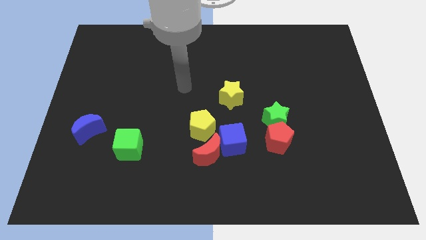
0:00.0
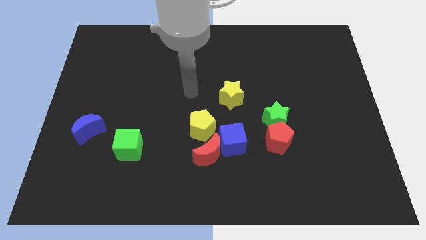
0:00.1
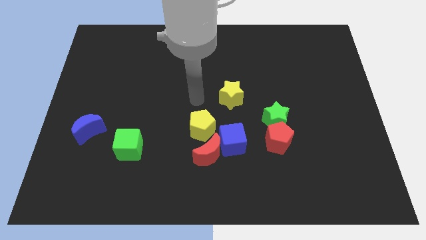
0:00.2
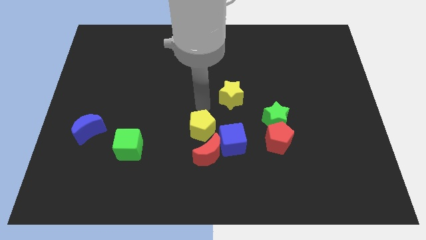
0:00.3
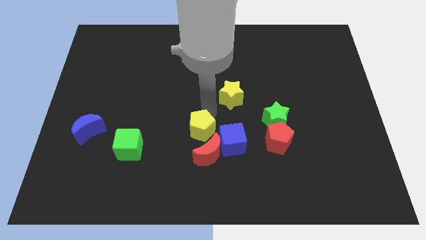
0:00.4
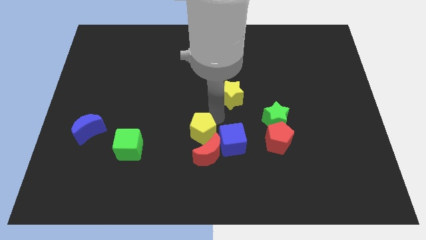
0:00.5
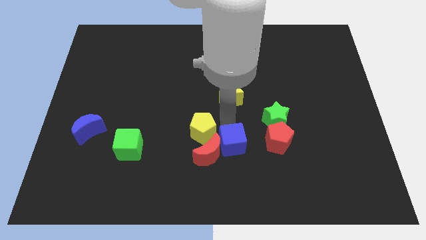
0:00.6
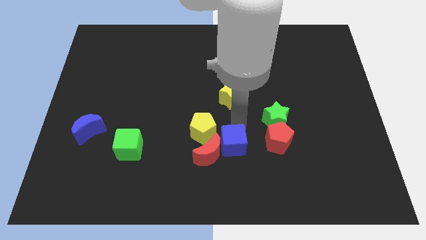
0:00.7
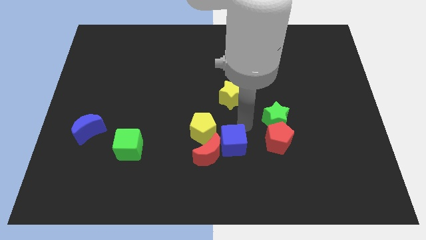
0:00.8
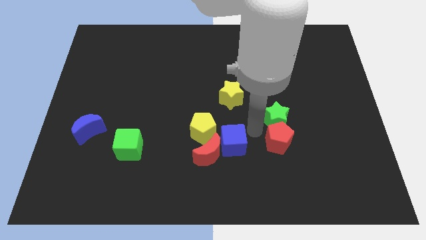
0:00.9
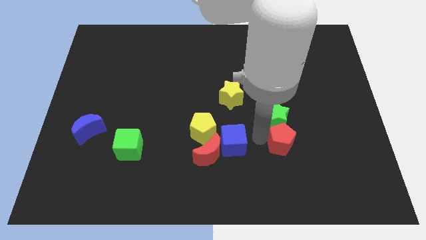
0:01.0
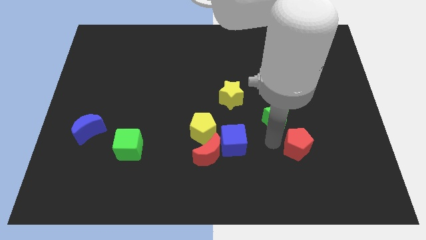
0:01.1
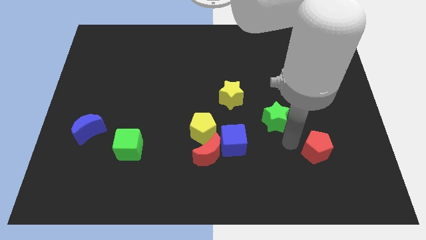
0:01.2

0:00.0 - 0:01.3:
pull the green star apart from the red pentagon

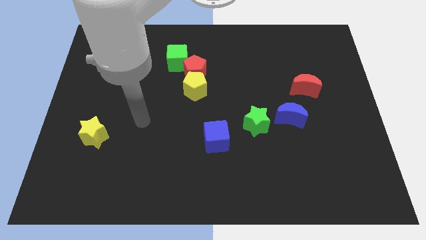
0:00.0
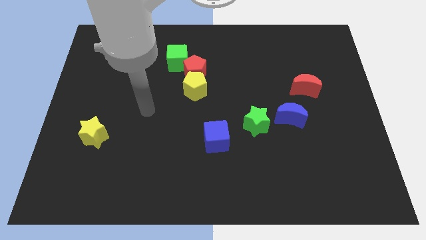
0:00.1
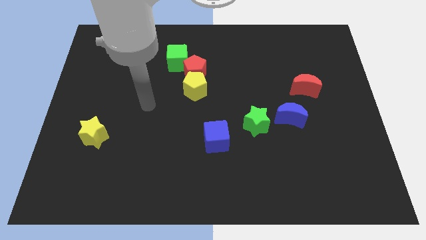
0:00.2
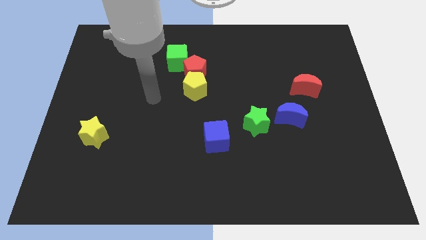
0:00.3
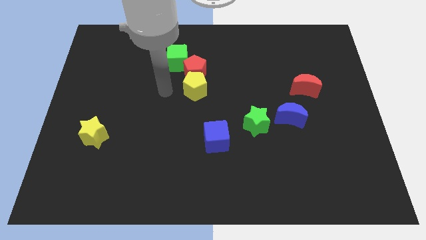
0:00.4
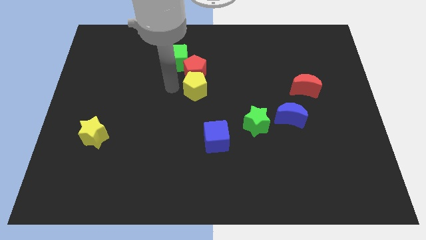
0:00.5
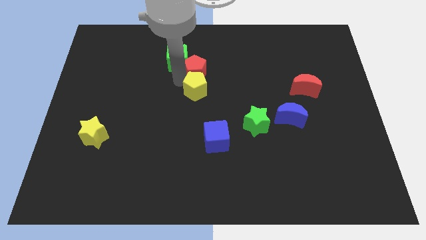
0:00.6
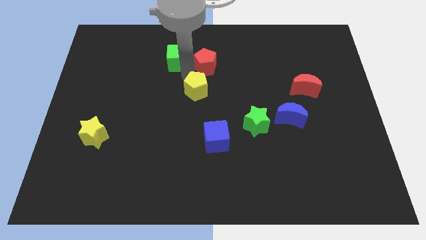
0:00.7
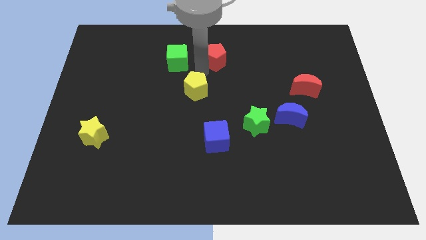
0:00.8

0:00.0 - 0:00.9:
pull the yellow pentagon apart from the red pentagon

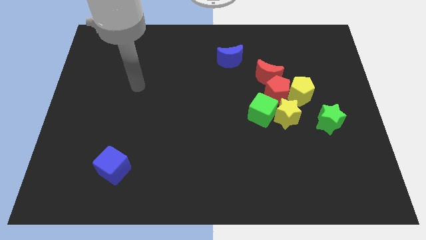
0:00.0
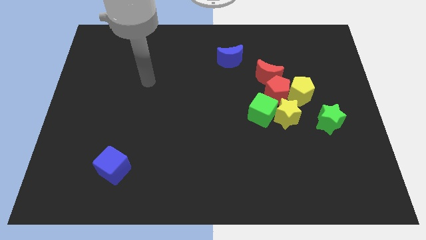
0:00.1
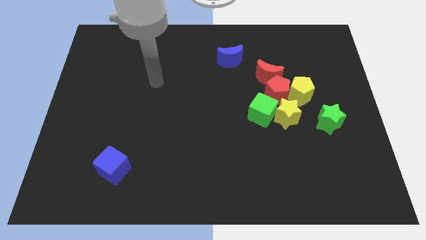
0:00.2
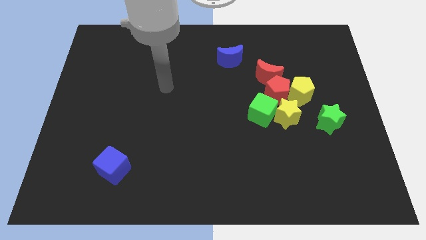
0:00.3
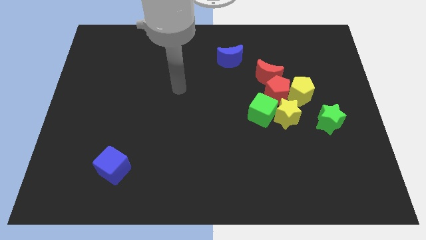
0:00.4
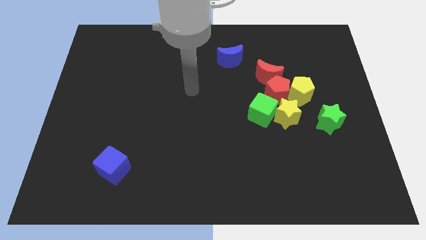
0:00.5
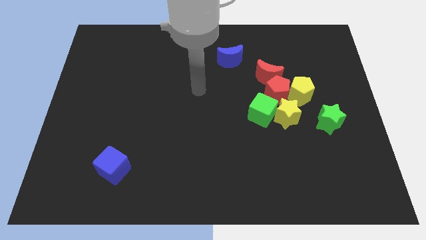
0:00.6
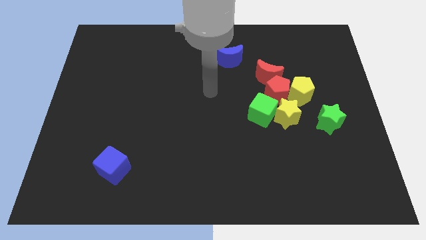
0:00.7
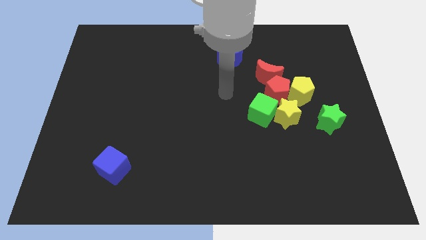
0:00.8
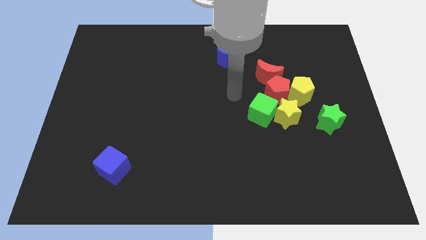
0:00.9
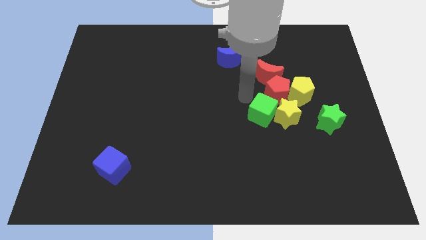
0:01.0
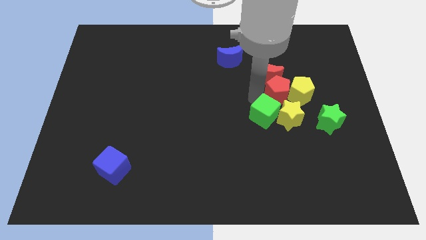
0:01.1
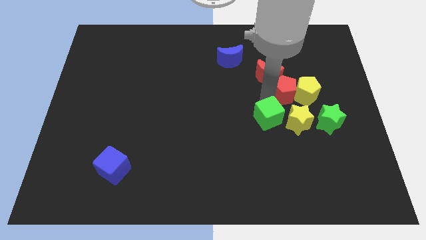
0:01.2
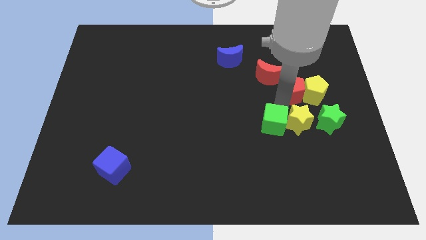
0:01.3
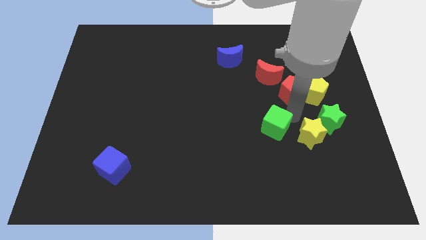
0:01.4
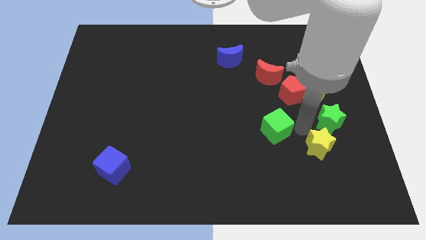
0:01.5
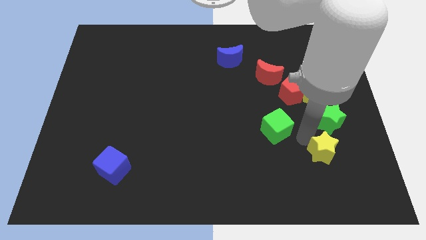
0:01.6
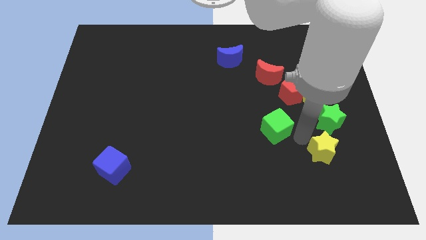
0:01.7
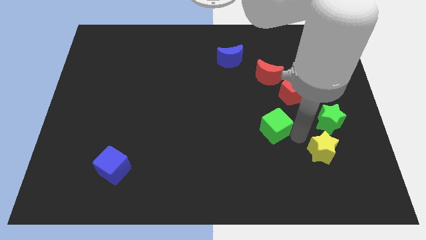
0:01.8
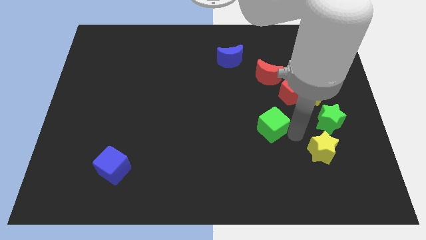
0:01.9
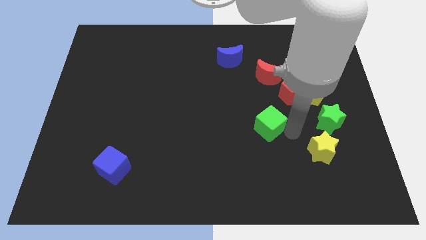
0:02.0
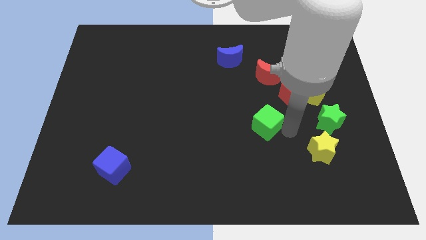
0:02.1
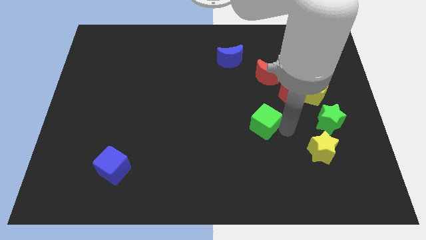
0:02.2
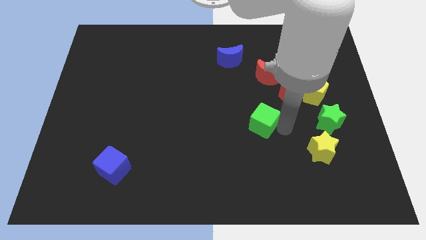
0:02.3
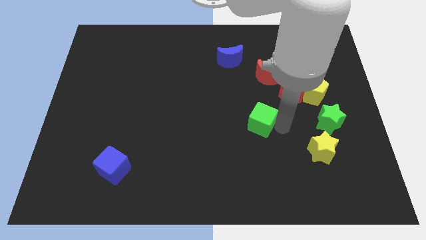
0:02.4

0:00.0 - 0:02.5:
pull the green cube apart from the yellow star and red pentagon

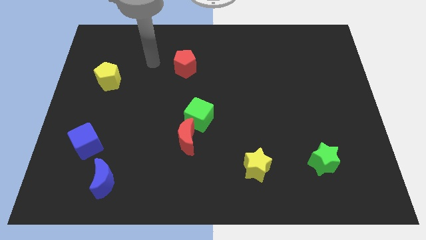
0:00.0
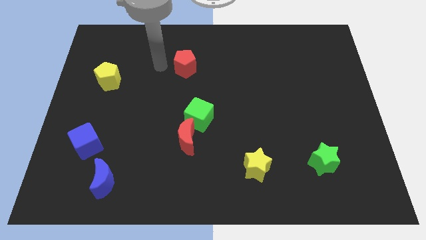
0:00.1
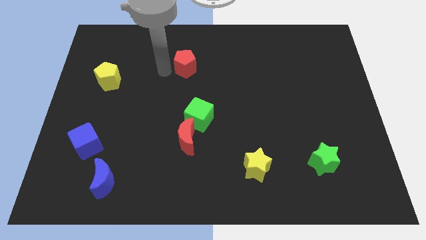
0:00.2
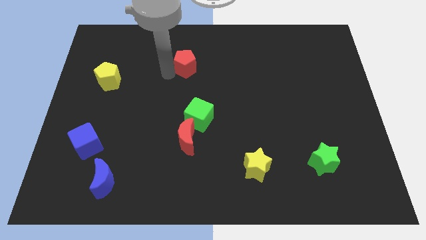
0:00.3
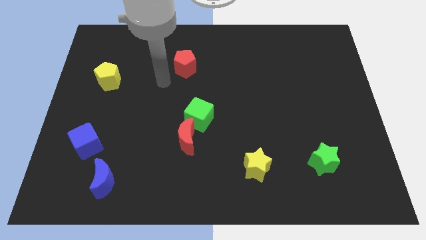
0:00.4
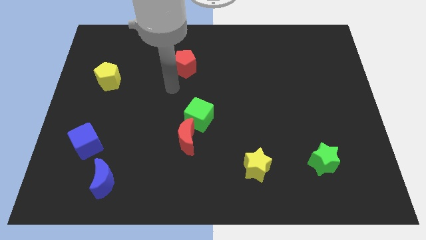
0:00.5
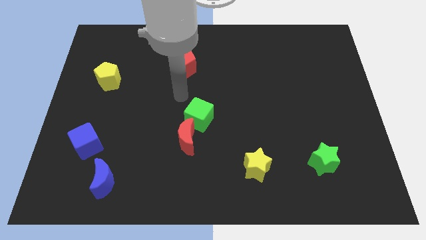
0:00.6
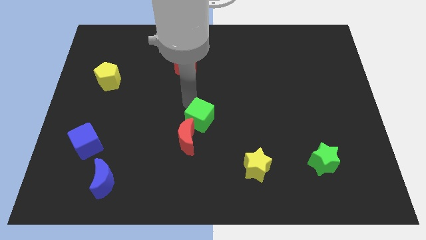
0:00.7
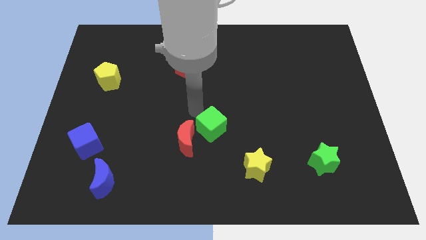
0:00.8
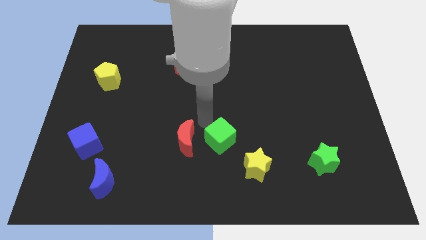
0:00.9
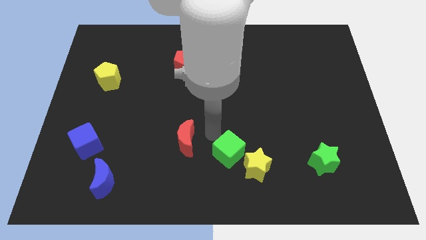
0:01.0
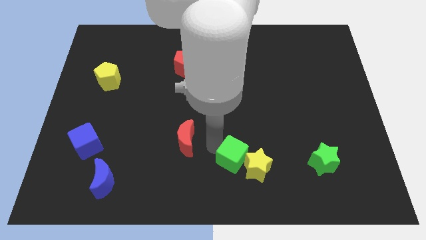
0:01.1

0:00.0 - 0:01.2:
separate the red moon from the green cube

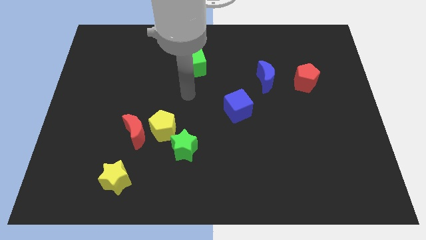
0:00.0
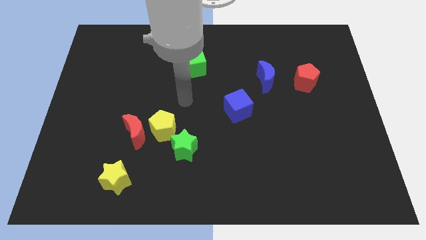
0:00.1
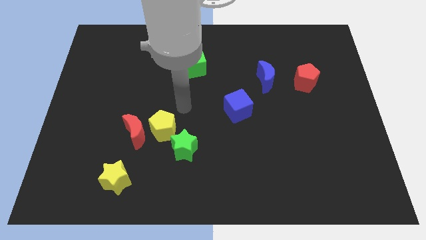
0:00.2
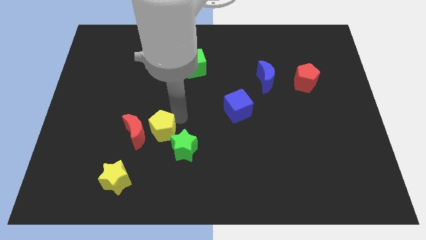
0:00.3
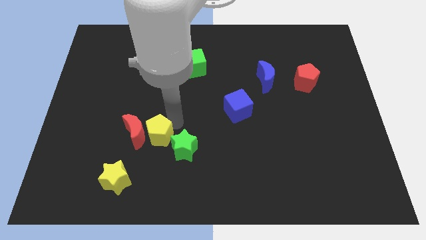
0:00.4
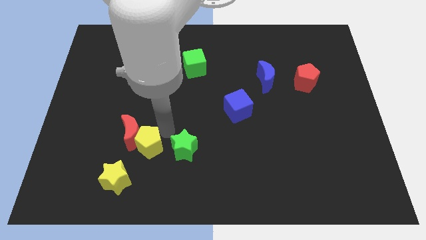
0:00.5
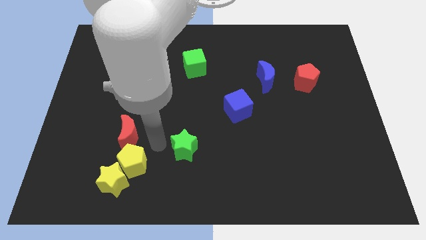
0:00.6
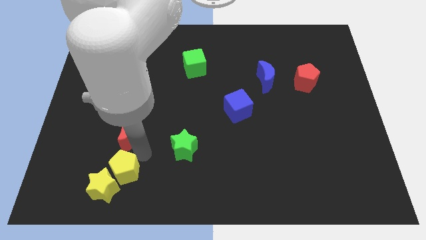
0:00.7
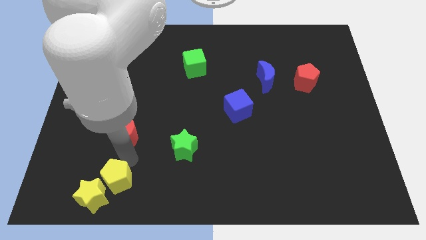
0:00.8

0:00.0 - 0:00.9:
move the red moon away from the yellow pentagon

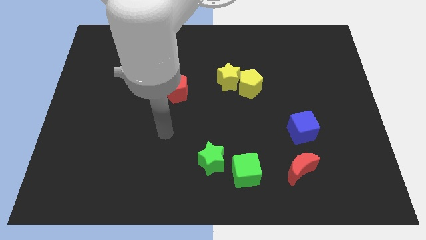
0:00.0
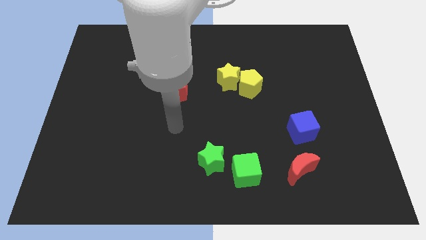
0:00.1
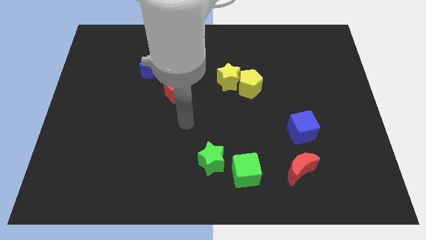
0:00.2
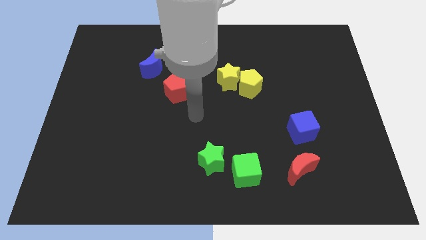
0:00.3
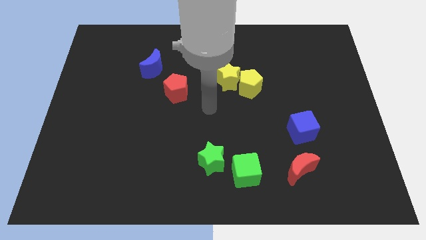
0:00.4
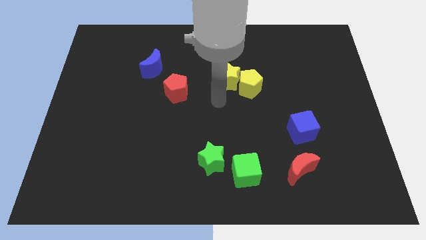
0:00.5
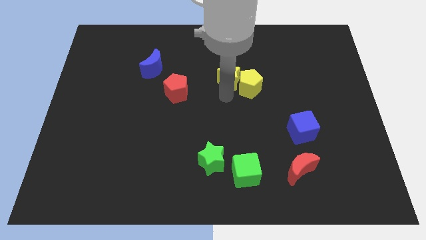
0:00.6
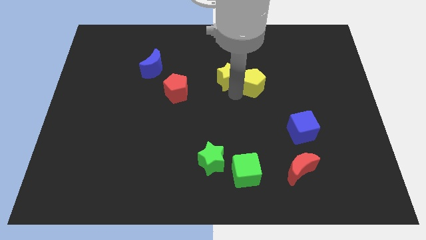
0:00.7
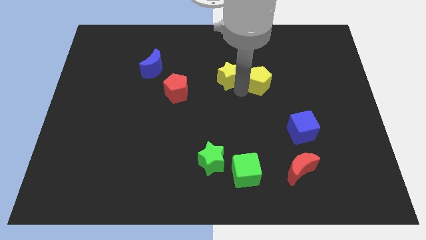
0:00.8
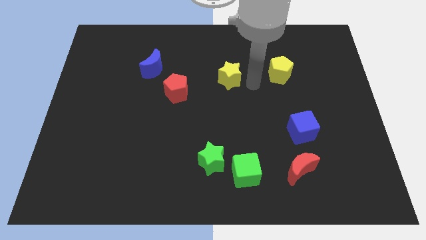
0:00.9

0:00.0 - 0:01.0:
move the yellow star away from the yellow pentagon

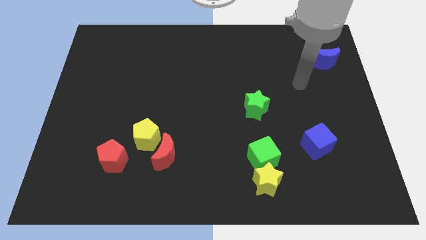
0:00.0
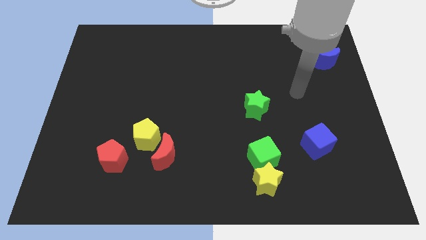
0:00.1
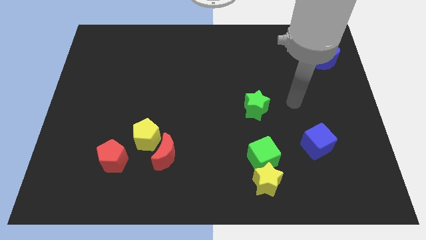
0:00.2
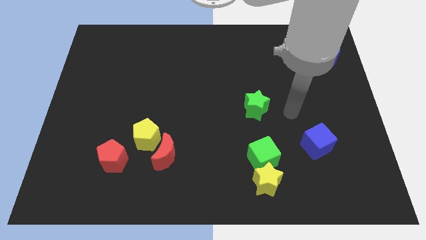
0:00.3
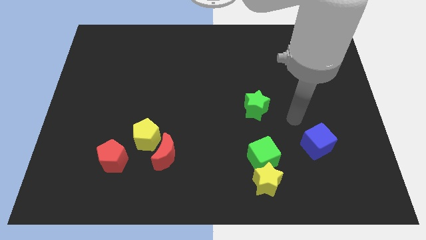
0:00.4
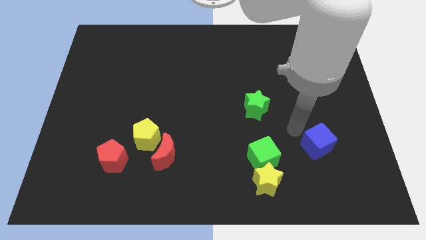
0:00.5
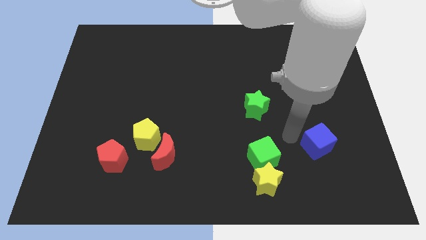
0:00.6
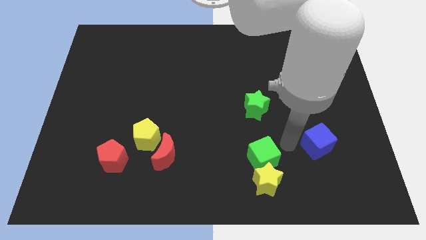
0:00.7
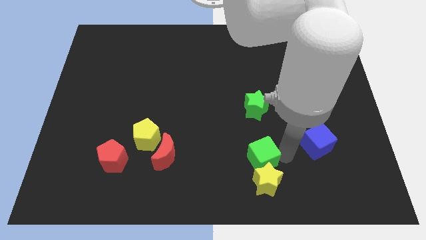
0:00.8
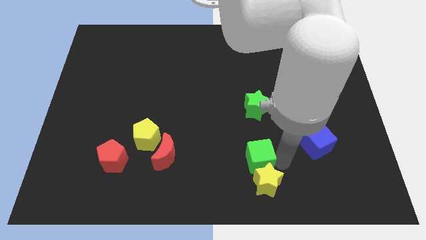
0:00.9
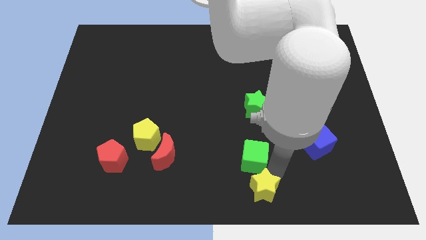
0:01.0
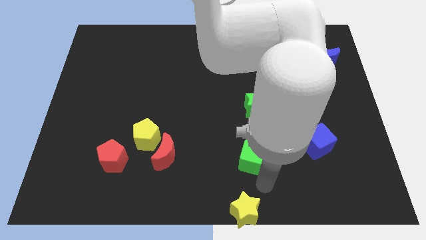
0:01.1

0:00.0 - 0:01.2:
move the green cube away from the yellow star

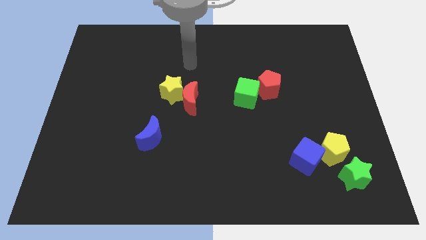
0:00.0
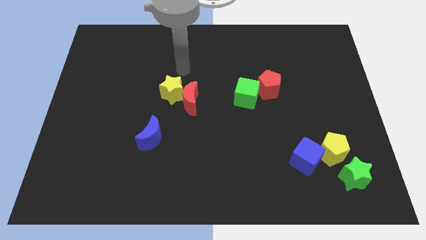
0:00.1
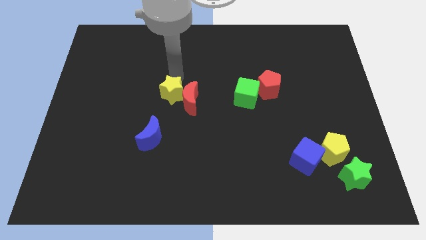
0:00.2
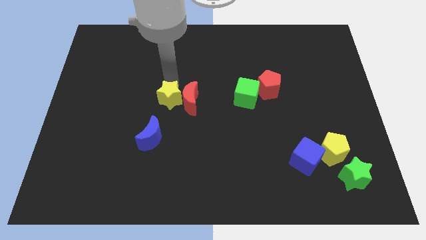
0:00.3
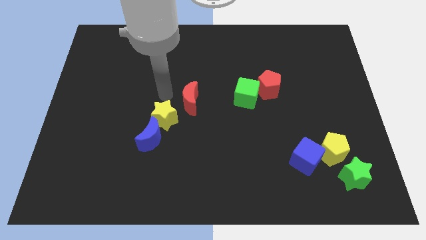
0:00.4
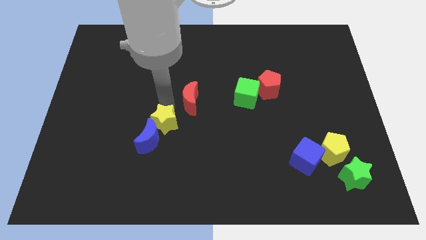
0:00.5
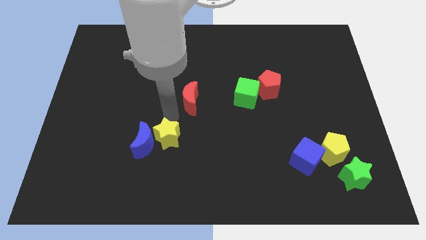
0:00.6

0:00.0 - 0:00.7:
move the red moon away from the yellow star
